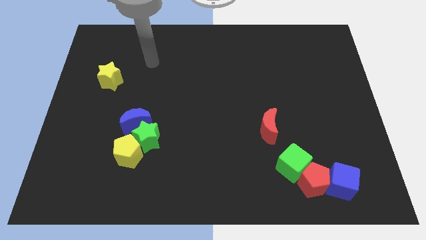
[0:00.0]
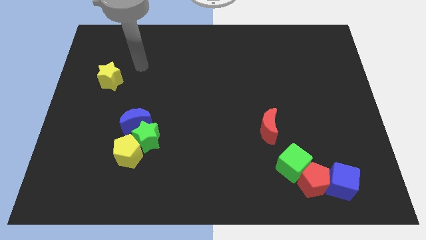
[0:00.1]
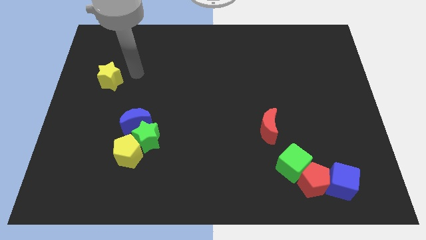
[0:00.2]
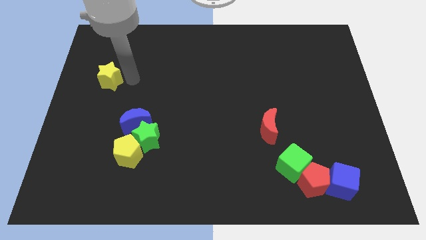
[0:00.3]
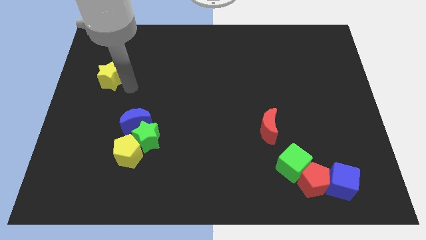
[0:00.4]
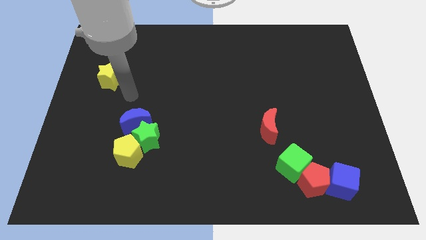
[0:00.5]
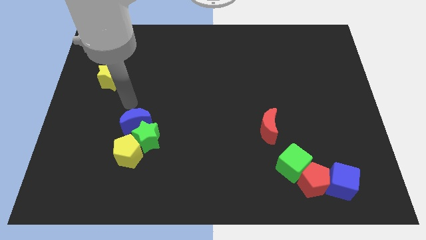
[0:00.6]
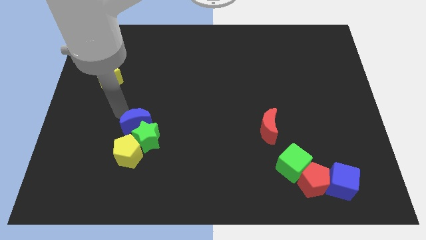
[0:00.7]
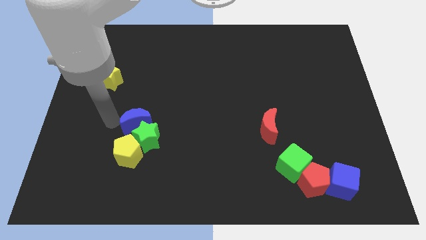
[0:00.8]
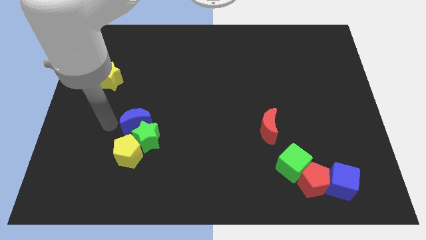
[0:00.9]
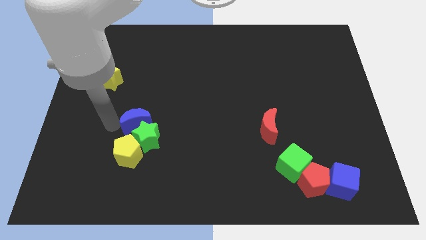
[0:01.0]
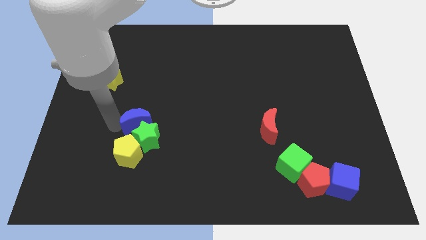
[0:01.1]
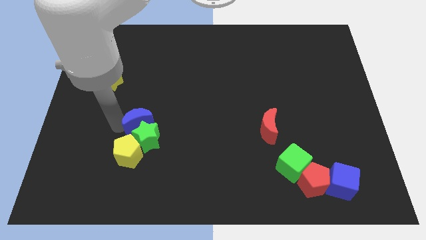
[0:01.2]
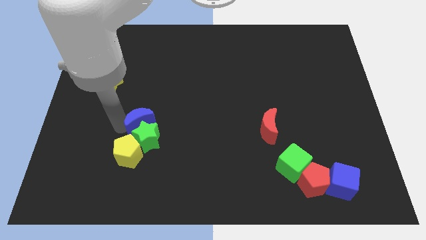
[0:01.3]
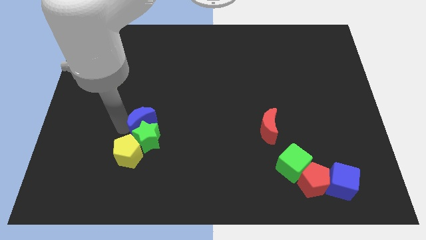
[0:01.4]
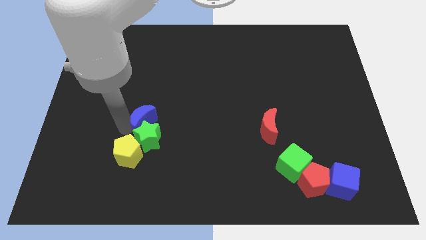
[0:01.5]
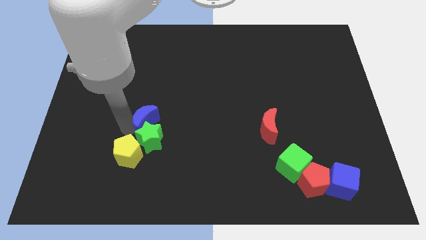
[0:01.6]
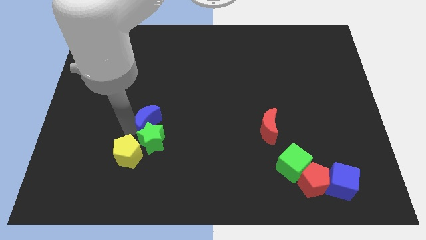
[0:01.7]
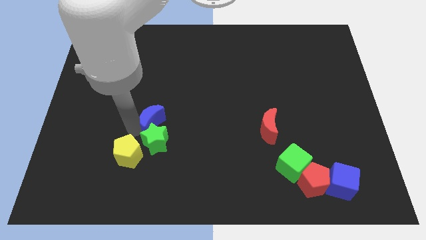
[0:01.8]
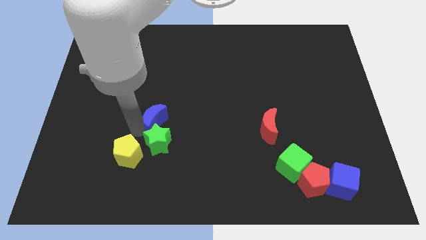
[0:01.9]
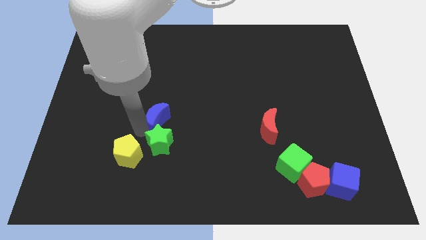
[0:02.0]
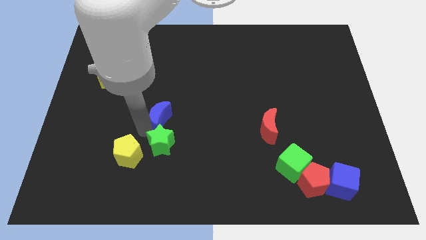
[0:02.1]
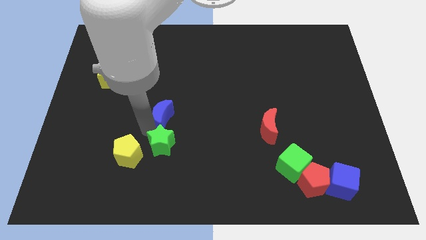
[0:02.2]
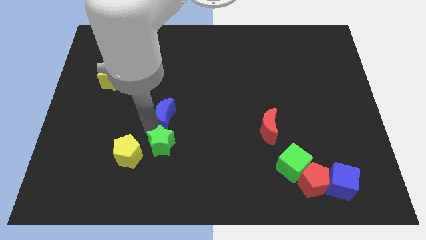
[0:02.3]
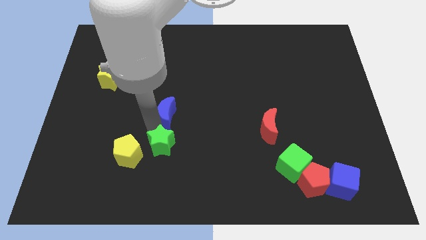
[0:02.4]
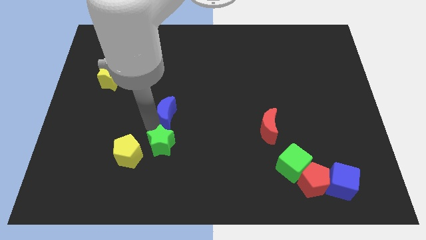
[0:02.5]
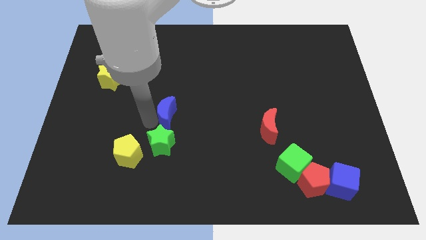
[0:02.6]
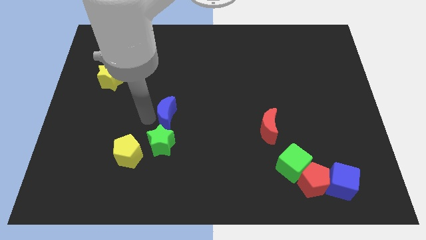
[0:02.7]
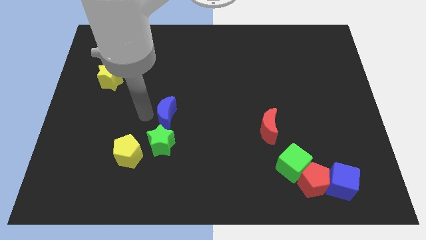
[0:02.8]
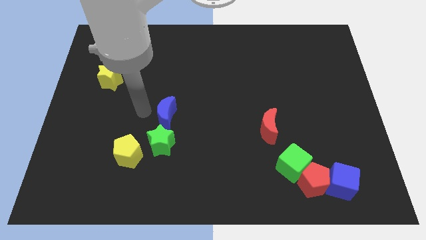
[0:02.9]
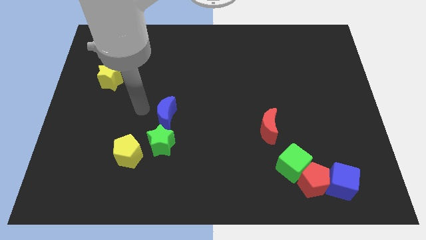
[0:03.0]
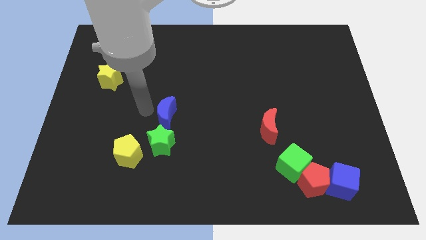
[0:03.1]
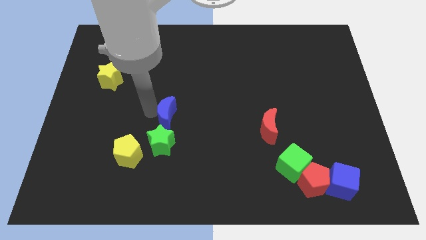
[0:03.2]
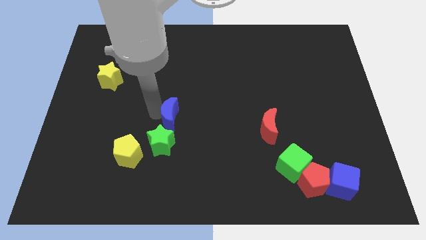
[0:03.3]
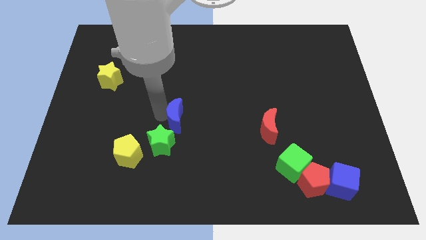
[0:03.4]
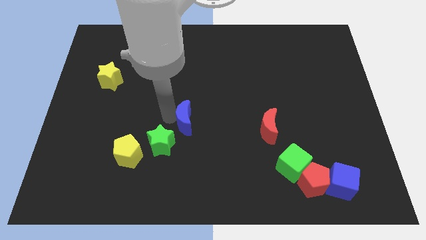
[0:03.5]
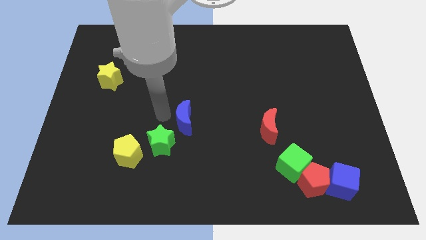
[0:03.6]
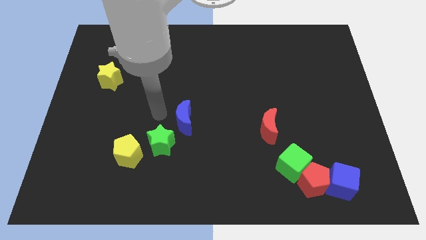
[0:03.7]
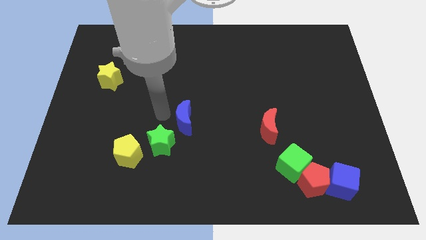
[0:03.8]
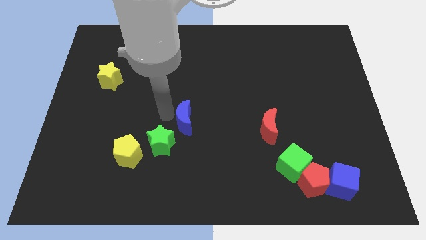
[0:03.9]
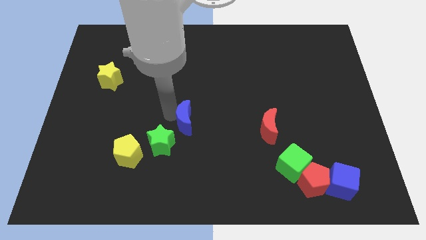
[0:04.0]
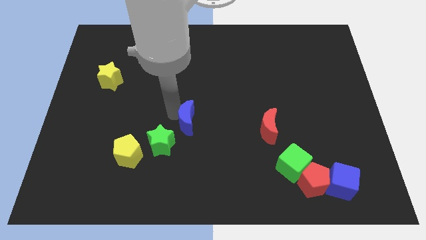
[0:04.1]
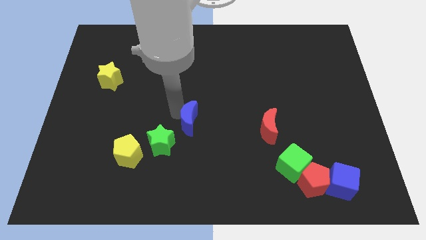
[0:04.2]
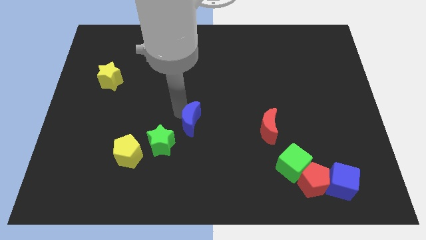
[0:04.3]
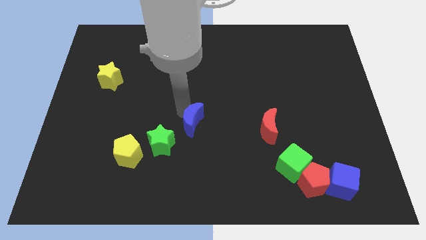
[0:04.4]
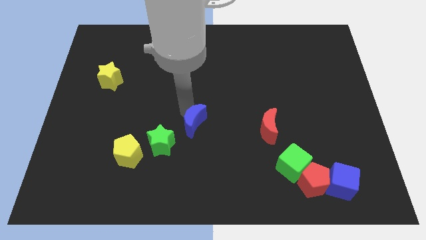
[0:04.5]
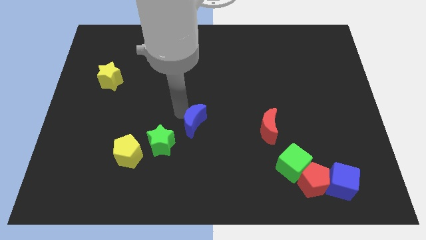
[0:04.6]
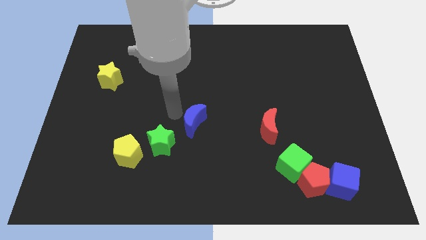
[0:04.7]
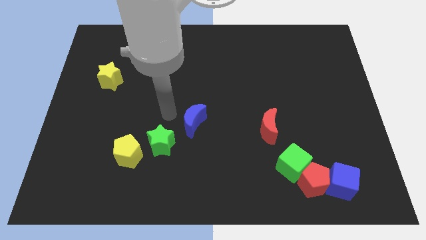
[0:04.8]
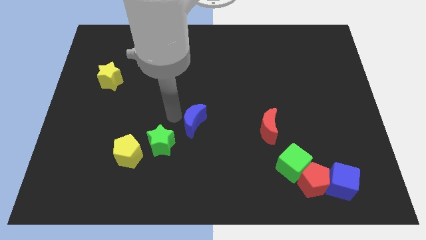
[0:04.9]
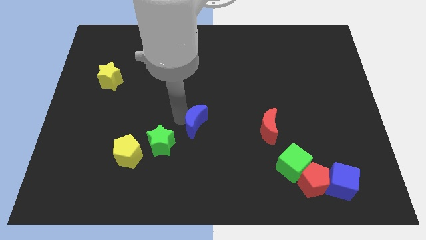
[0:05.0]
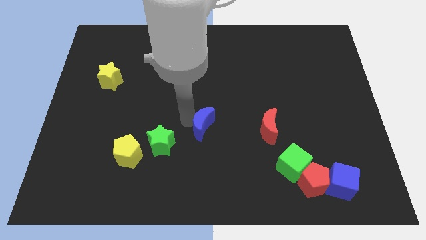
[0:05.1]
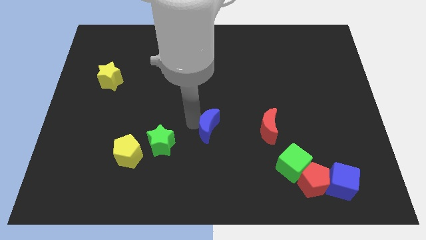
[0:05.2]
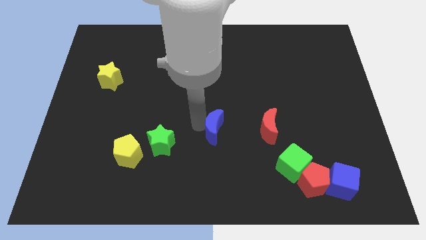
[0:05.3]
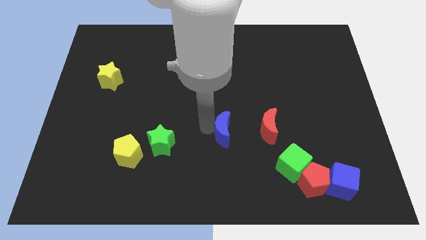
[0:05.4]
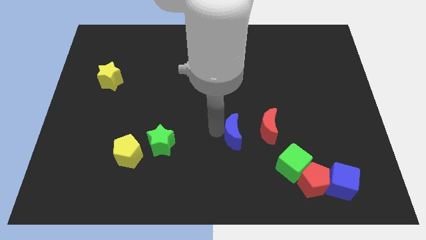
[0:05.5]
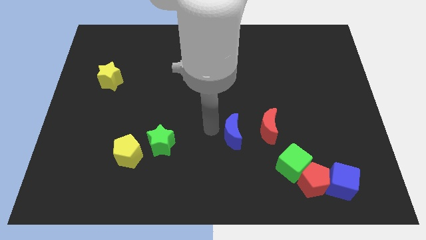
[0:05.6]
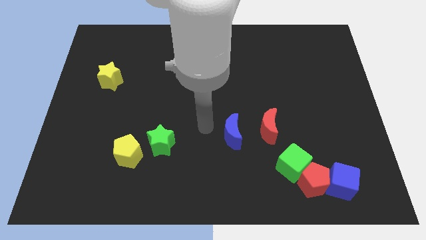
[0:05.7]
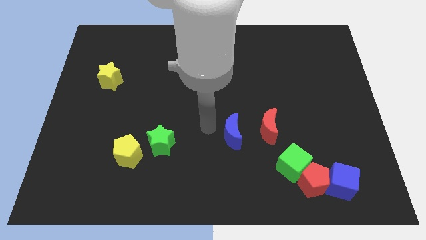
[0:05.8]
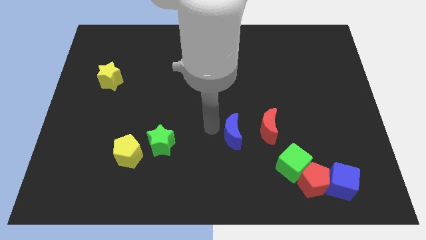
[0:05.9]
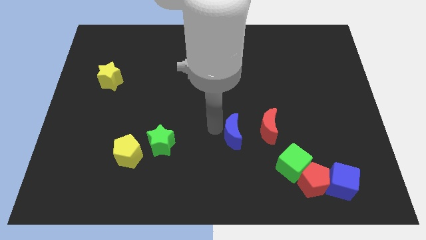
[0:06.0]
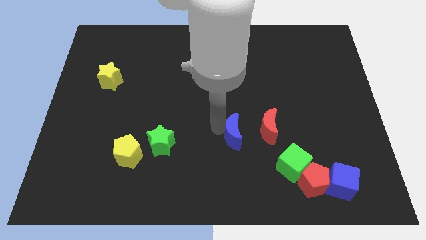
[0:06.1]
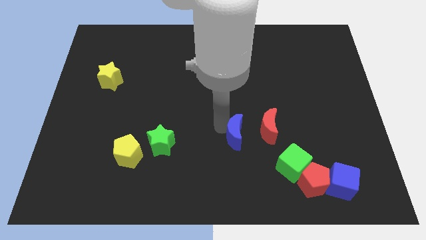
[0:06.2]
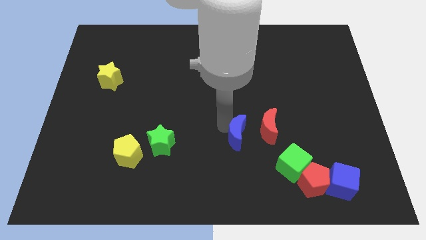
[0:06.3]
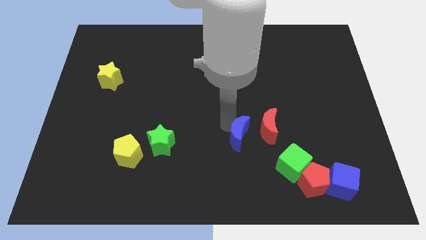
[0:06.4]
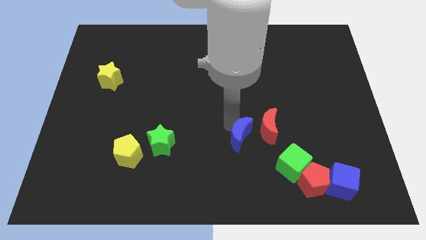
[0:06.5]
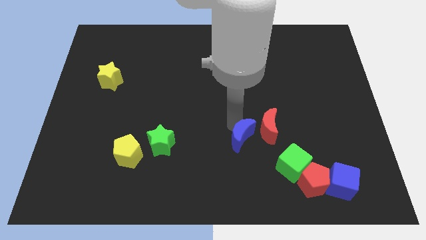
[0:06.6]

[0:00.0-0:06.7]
push the blue moon to the top left side of the green cube

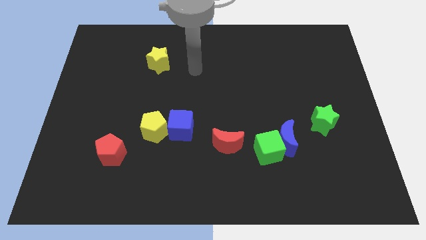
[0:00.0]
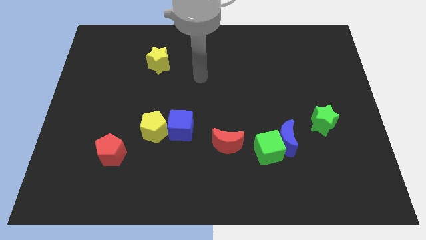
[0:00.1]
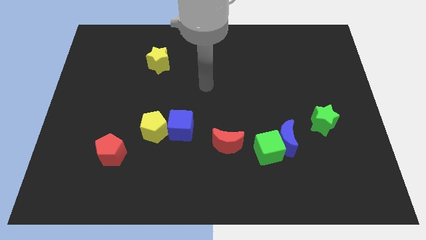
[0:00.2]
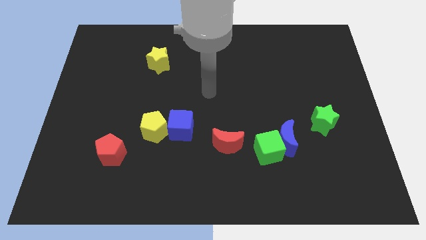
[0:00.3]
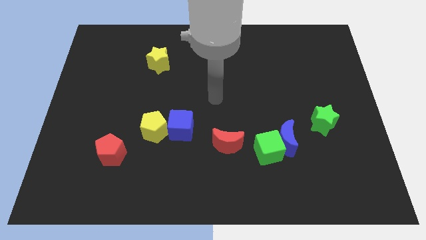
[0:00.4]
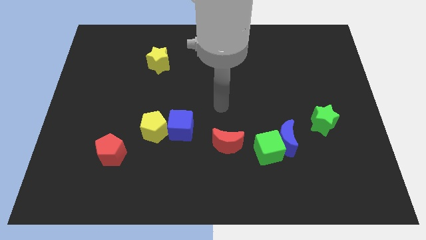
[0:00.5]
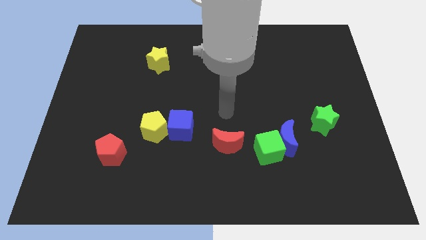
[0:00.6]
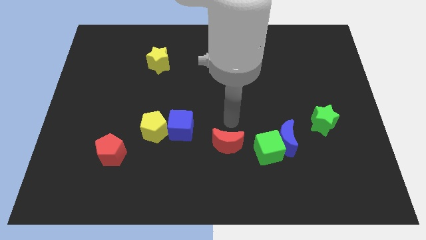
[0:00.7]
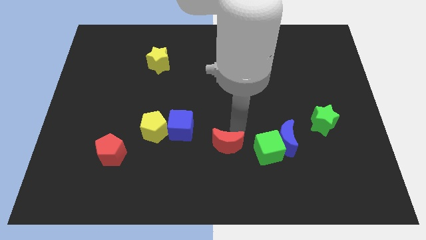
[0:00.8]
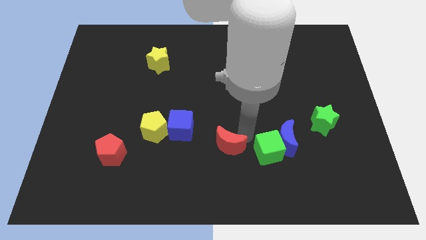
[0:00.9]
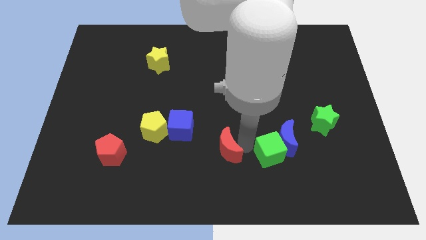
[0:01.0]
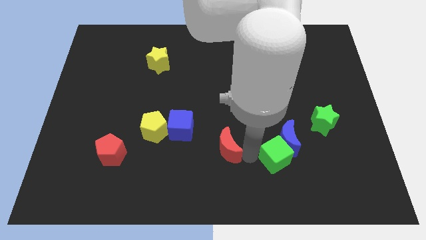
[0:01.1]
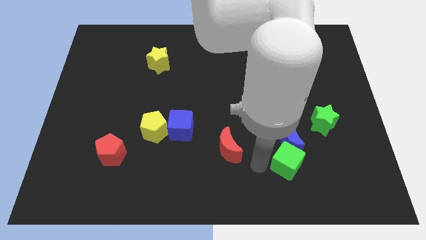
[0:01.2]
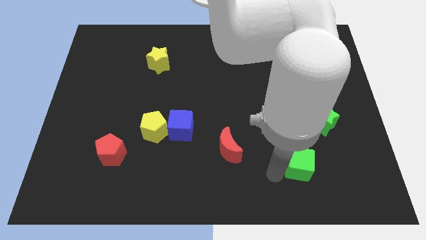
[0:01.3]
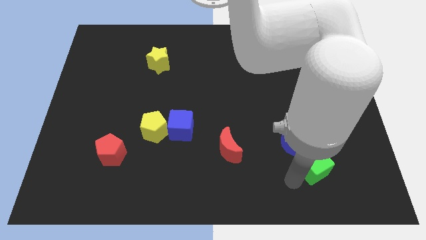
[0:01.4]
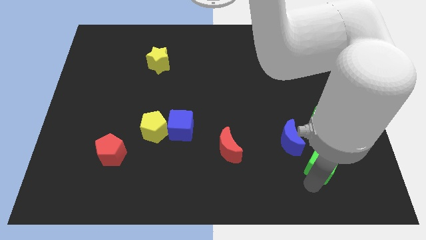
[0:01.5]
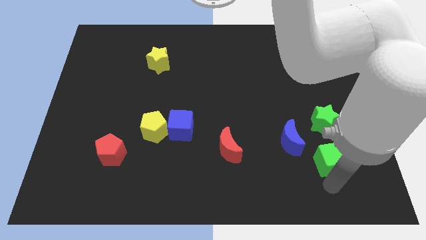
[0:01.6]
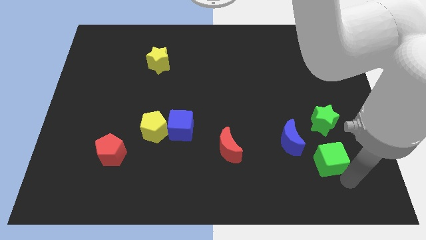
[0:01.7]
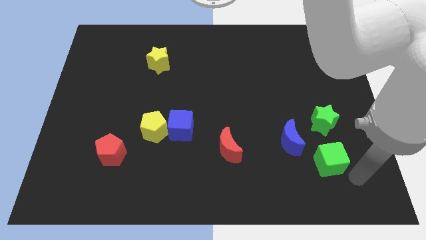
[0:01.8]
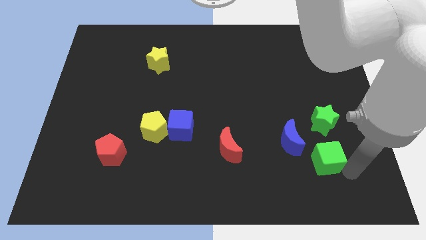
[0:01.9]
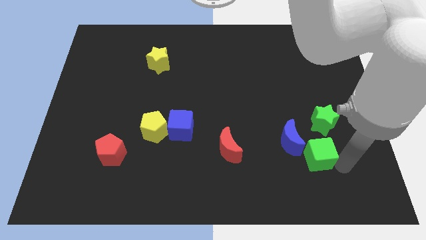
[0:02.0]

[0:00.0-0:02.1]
move the green cube diagonally down and to the left of the green star
